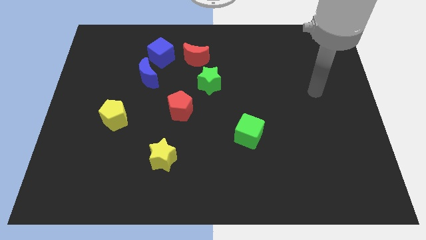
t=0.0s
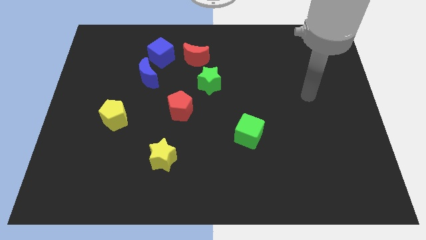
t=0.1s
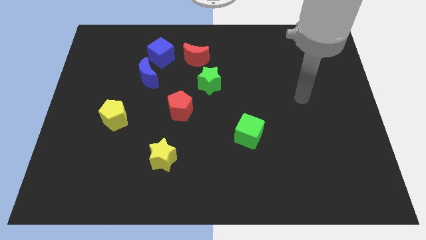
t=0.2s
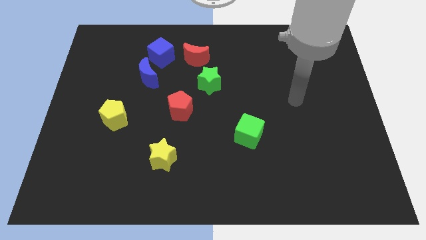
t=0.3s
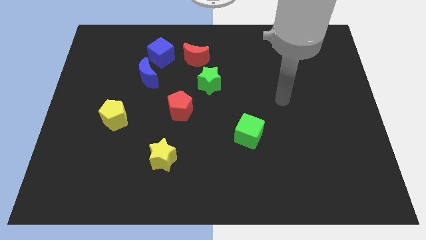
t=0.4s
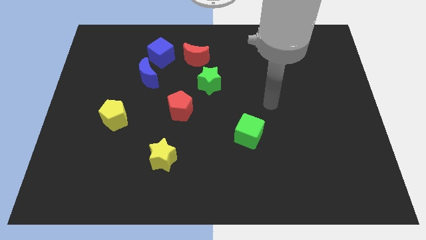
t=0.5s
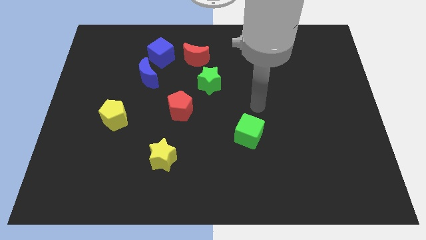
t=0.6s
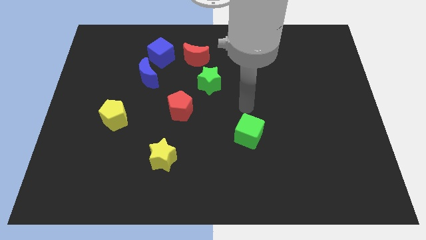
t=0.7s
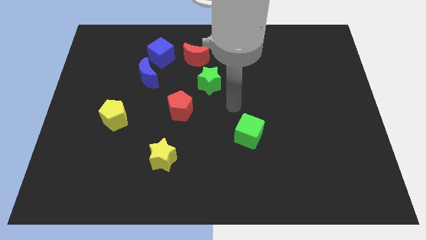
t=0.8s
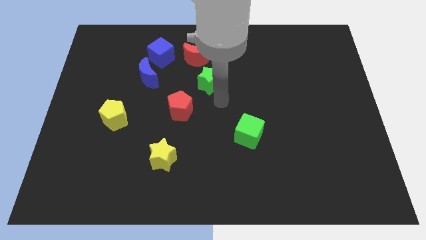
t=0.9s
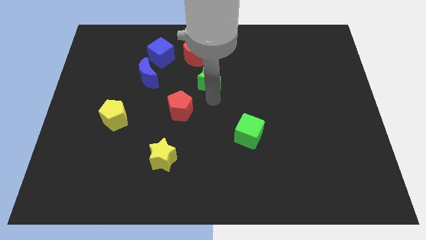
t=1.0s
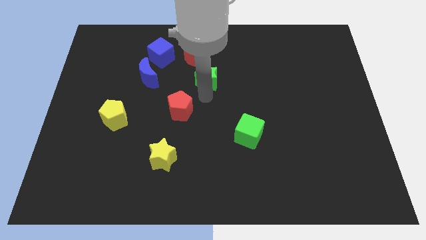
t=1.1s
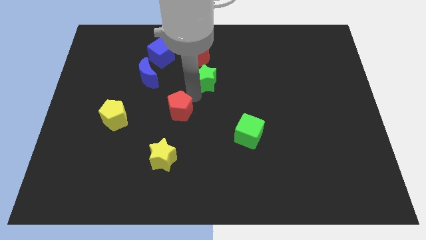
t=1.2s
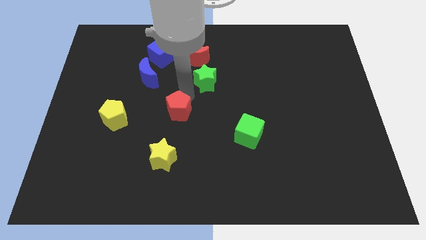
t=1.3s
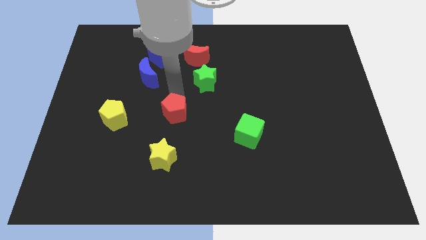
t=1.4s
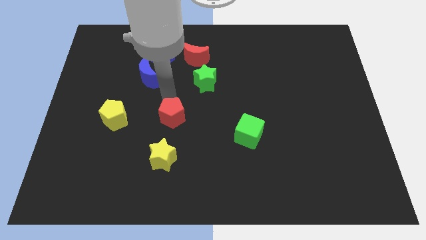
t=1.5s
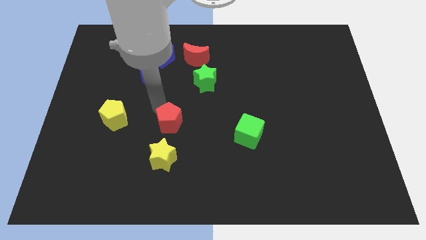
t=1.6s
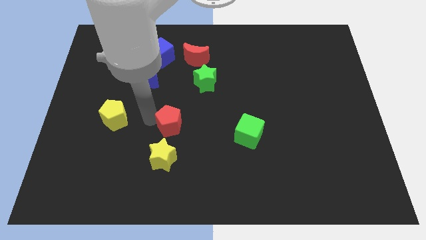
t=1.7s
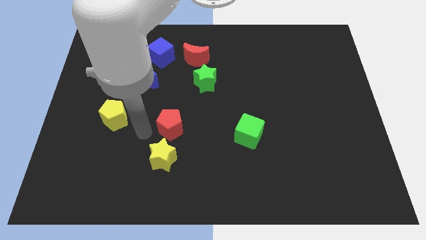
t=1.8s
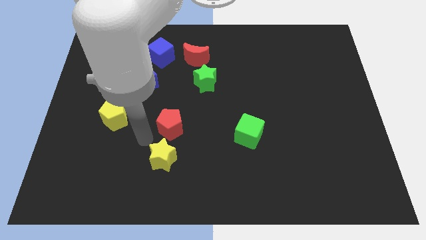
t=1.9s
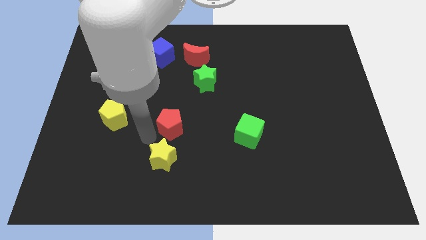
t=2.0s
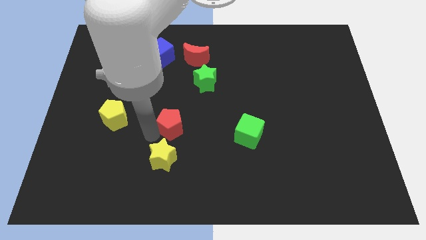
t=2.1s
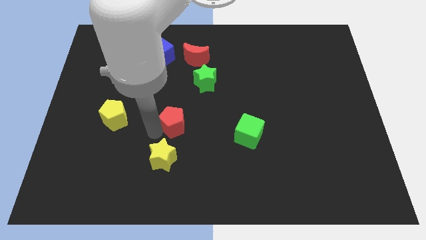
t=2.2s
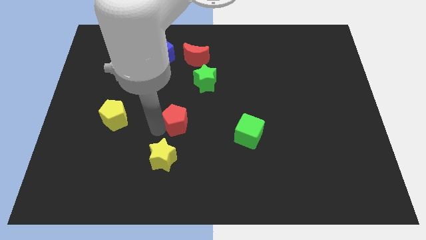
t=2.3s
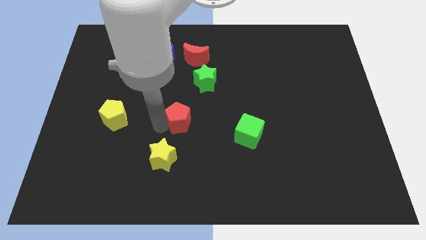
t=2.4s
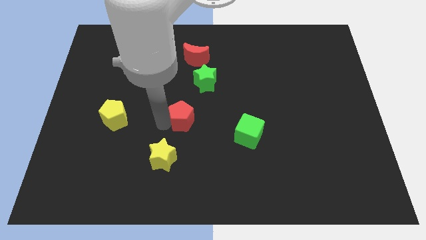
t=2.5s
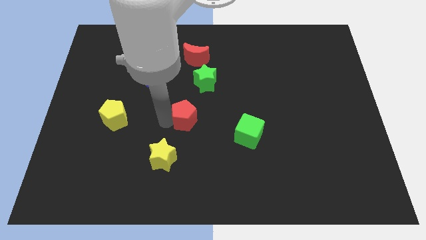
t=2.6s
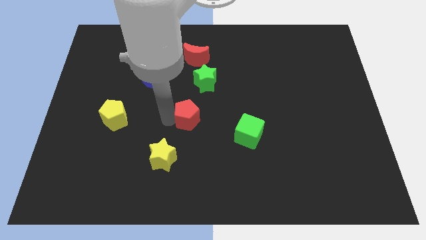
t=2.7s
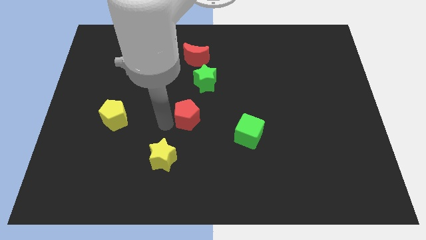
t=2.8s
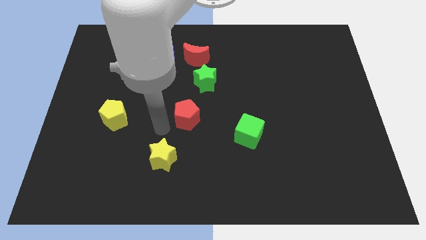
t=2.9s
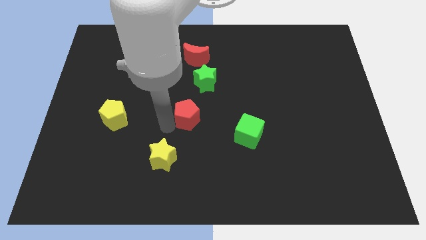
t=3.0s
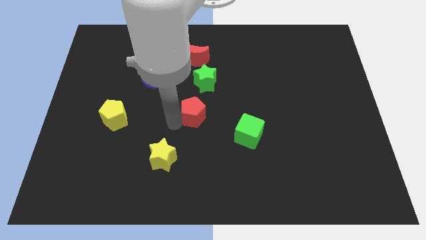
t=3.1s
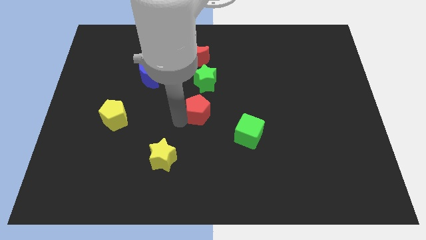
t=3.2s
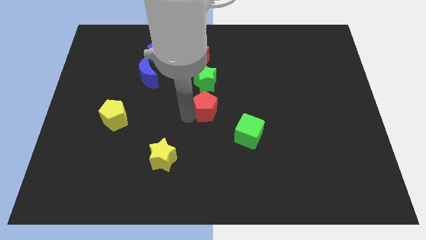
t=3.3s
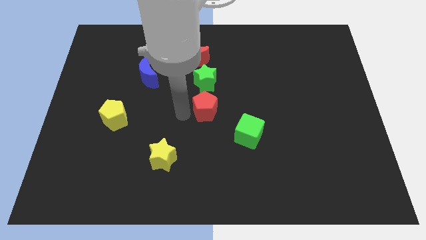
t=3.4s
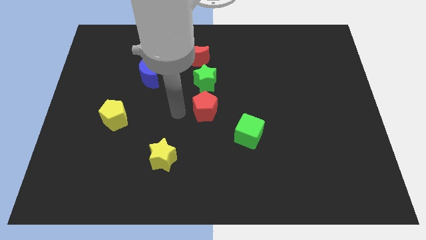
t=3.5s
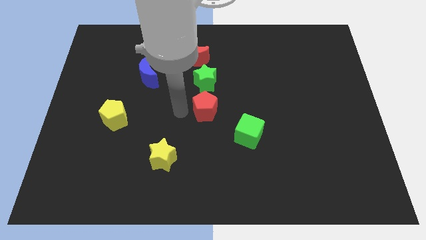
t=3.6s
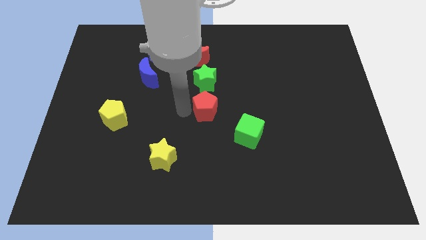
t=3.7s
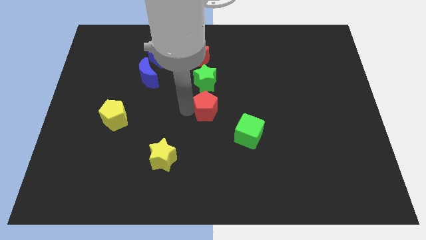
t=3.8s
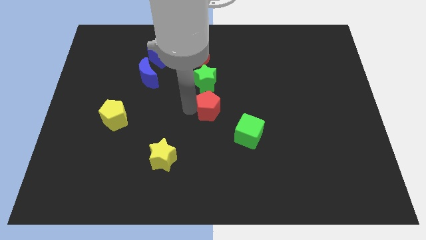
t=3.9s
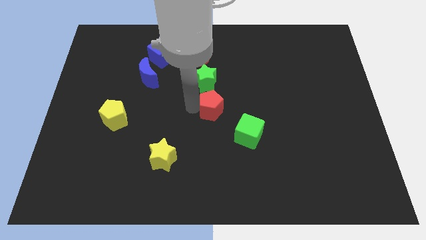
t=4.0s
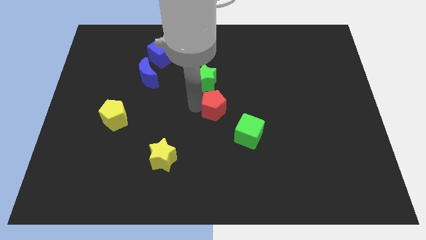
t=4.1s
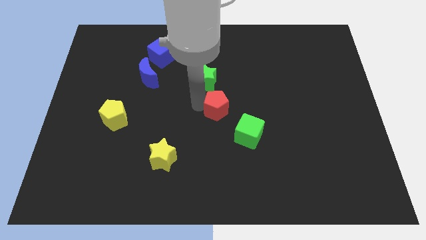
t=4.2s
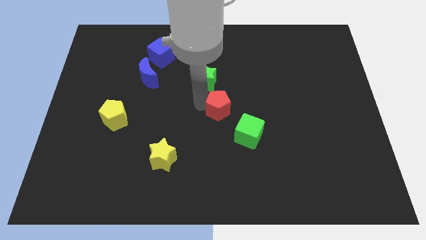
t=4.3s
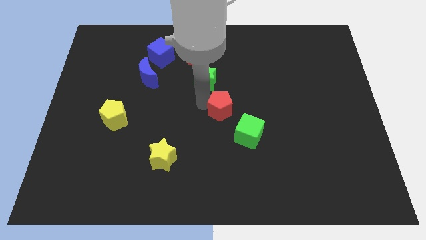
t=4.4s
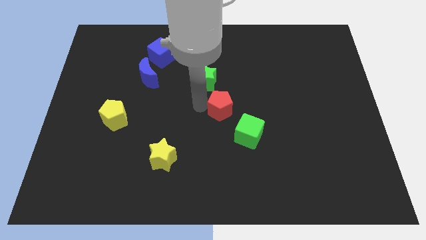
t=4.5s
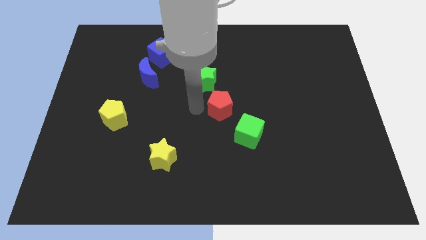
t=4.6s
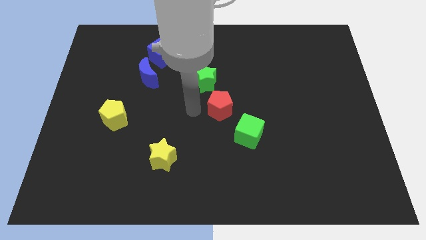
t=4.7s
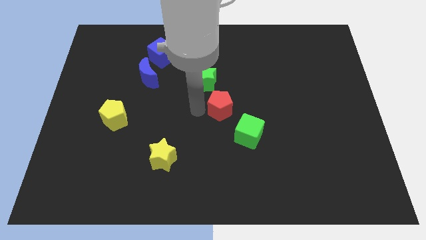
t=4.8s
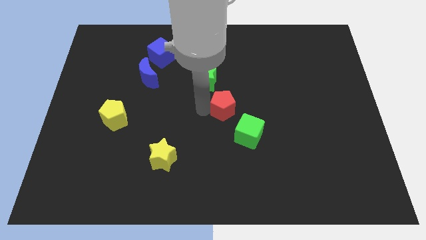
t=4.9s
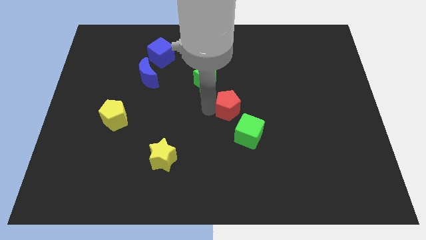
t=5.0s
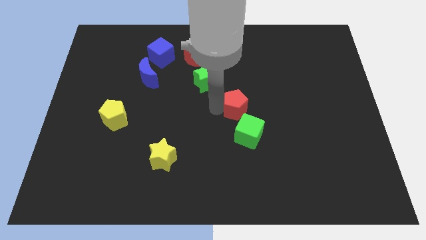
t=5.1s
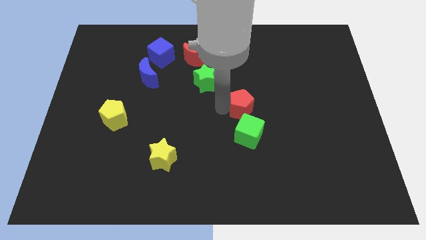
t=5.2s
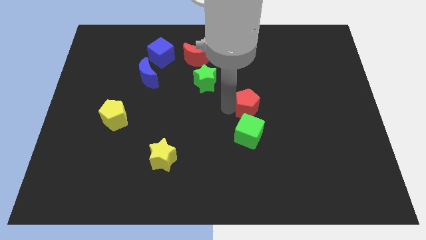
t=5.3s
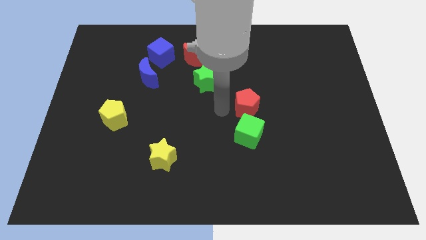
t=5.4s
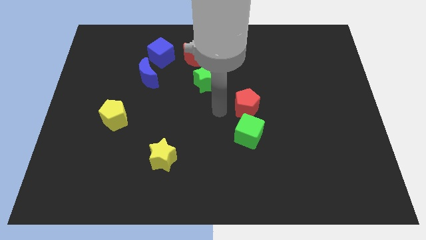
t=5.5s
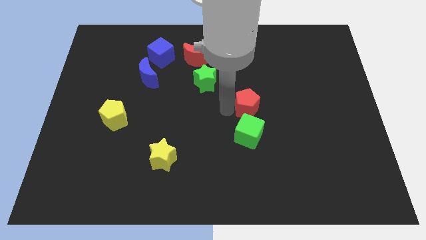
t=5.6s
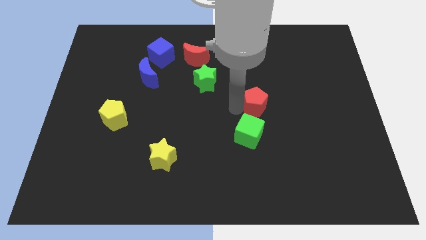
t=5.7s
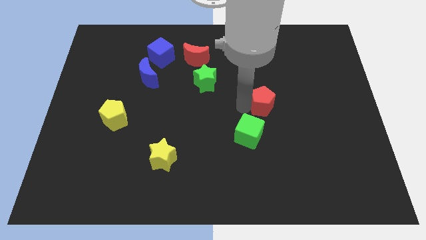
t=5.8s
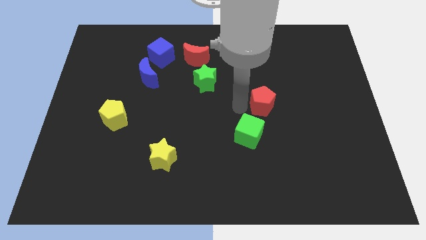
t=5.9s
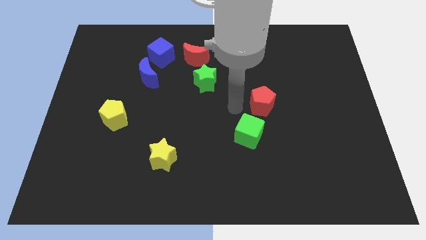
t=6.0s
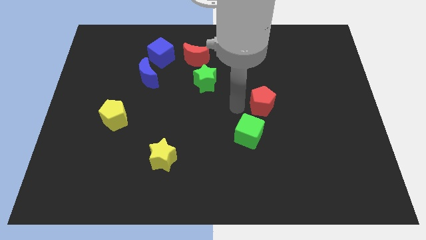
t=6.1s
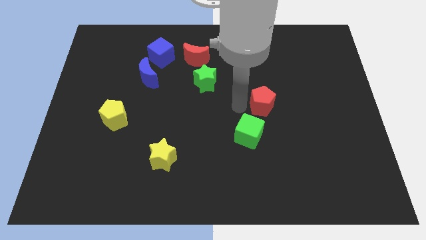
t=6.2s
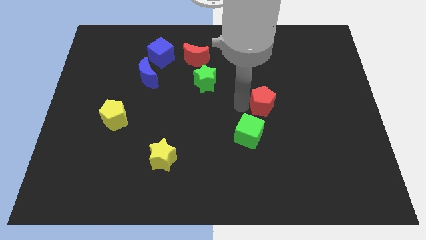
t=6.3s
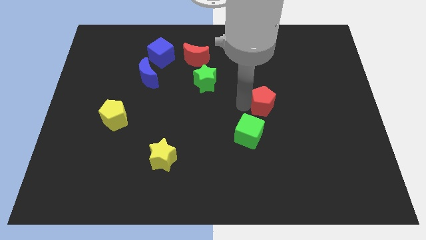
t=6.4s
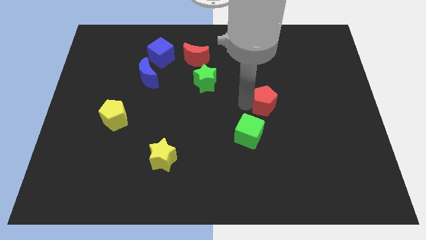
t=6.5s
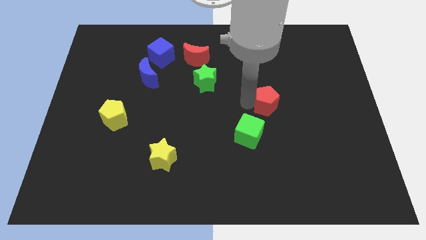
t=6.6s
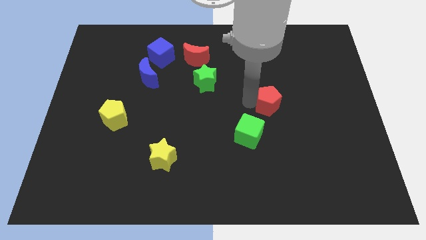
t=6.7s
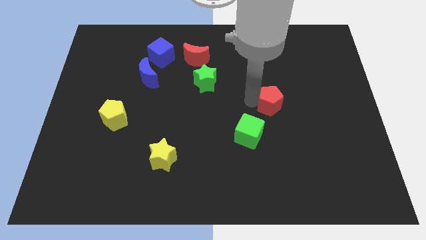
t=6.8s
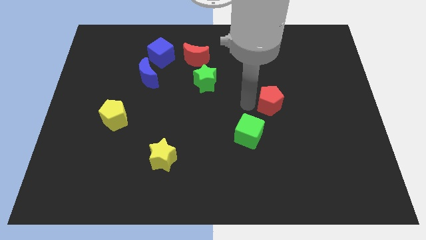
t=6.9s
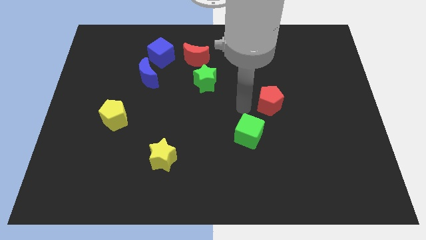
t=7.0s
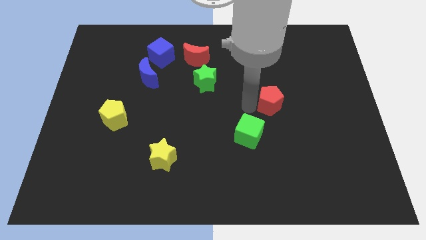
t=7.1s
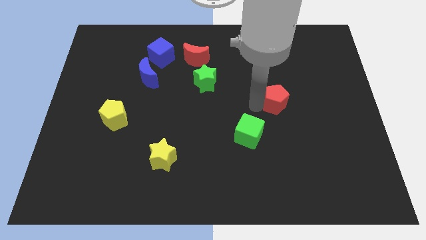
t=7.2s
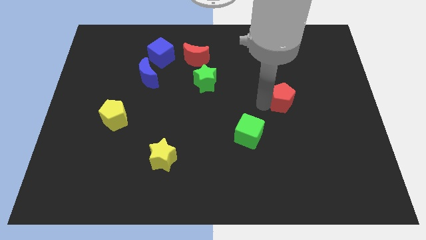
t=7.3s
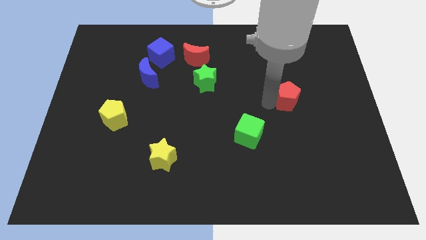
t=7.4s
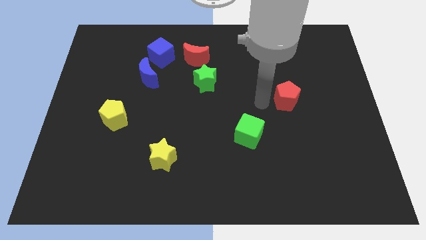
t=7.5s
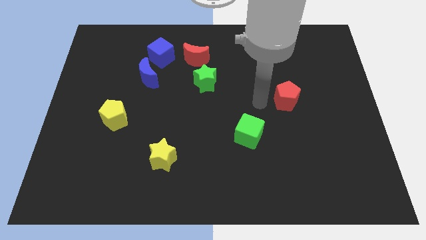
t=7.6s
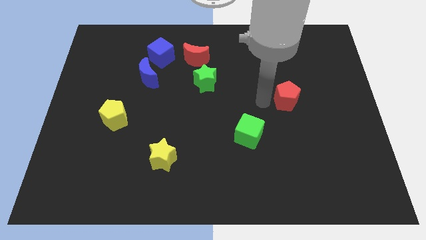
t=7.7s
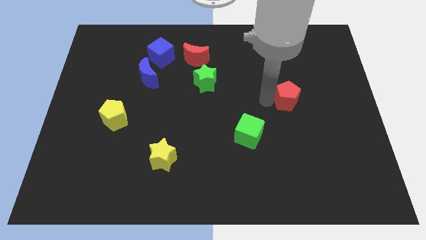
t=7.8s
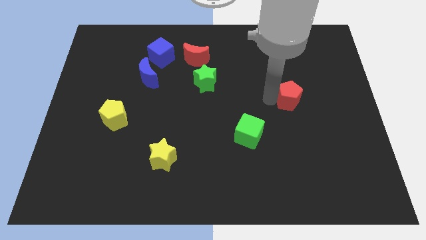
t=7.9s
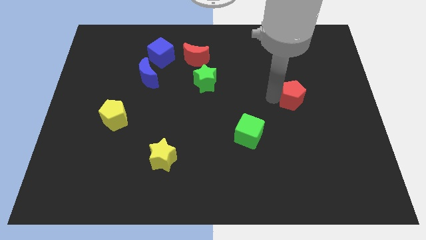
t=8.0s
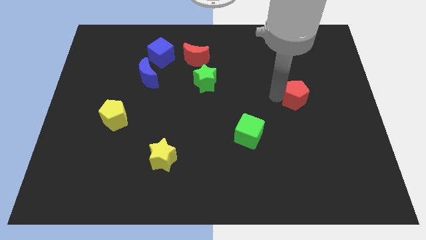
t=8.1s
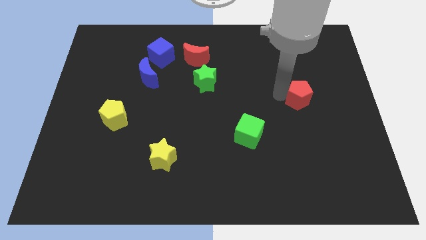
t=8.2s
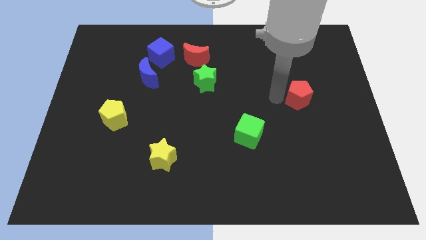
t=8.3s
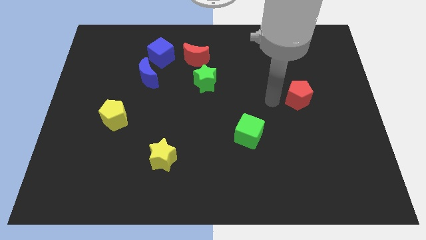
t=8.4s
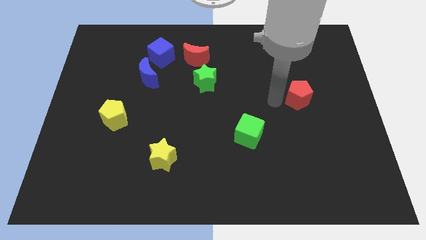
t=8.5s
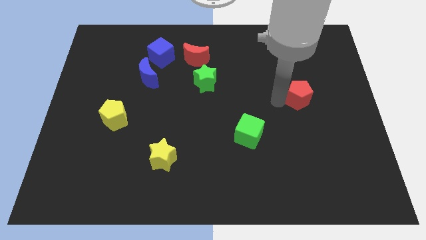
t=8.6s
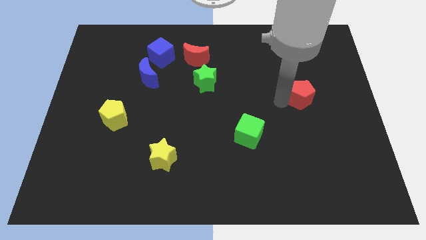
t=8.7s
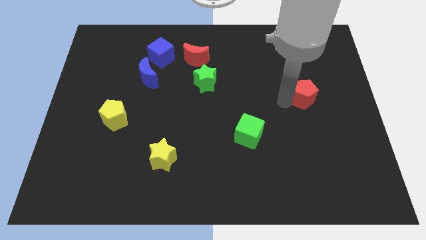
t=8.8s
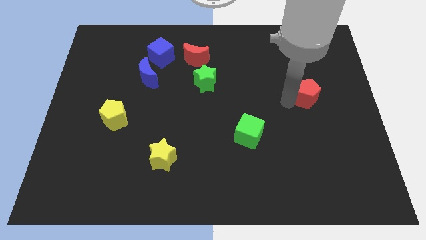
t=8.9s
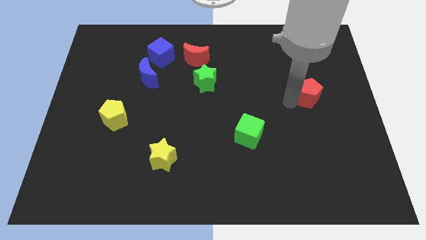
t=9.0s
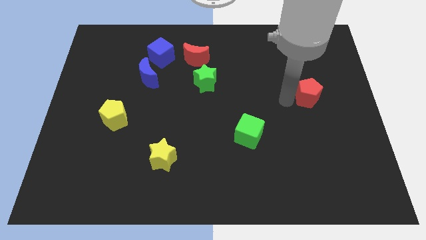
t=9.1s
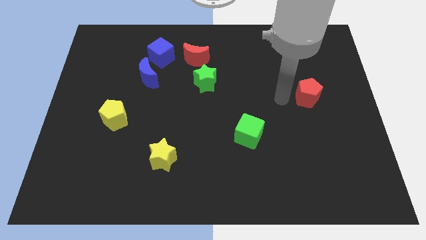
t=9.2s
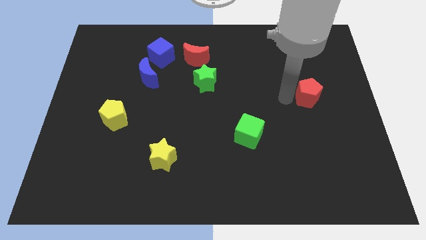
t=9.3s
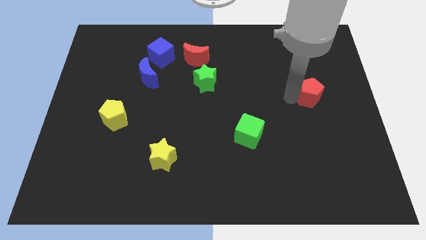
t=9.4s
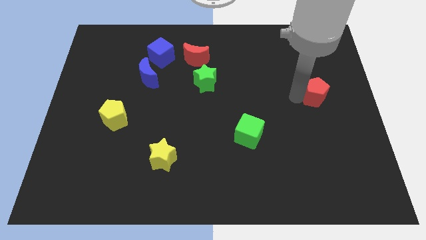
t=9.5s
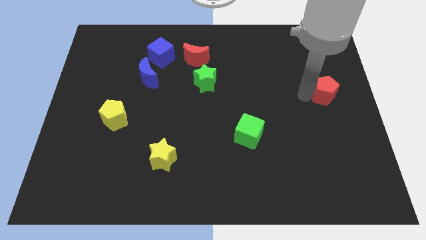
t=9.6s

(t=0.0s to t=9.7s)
slide the red pentagon to the right side
